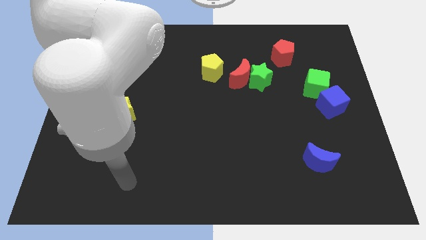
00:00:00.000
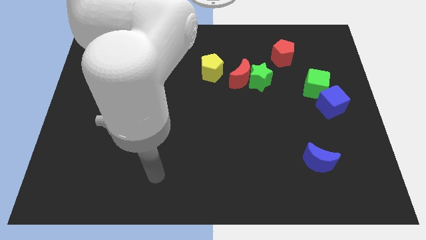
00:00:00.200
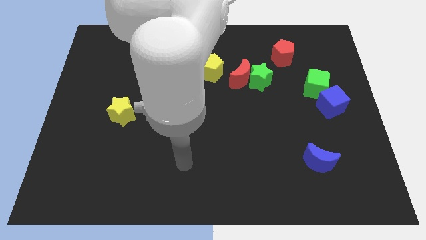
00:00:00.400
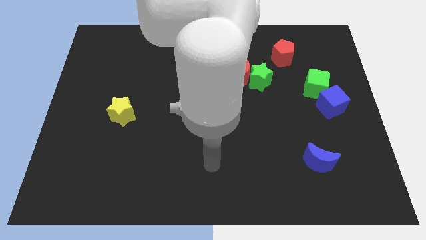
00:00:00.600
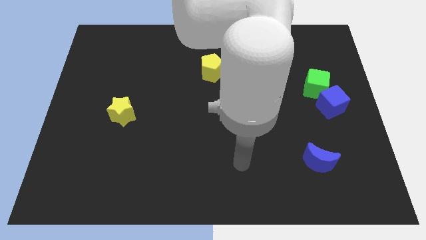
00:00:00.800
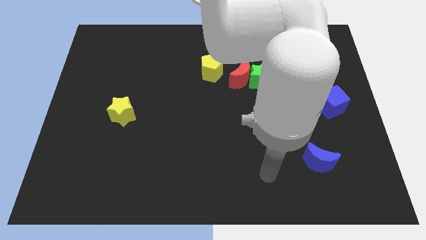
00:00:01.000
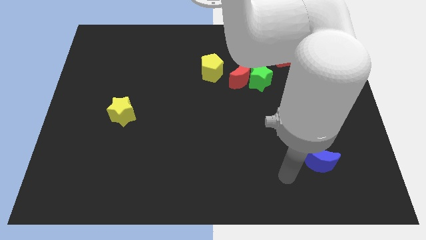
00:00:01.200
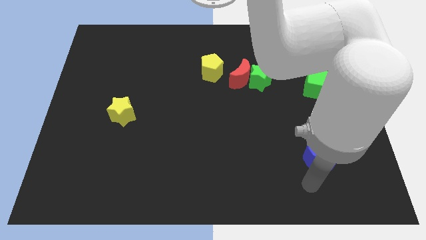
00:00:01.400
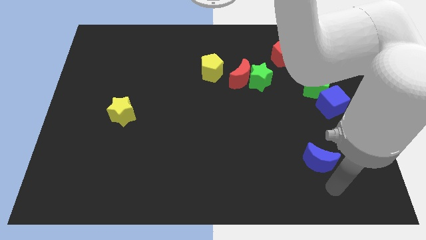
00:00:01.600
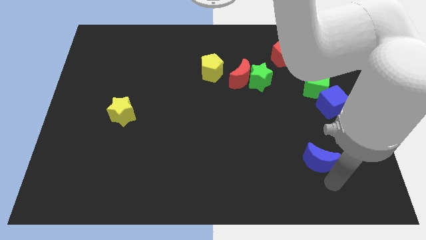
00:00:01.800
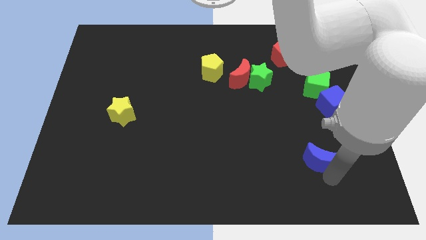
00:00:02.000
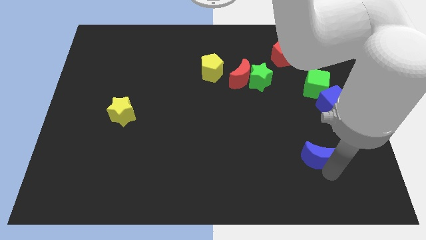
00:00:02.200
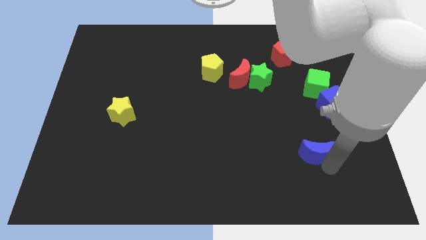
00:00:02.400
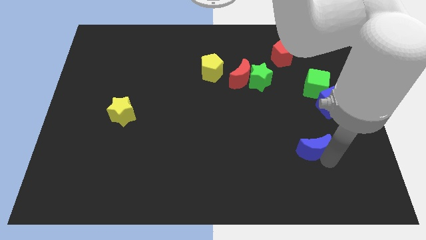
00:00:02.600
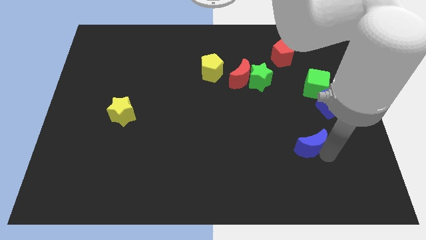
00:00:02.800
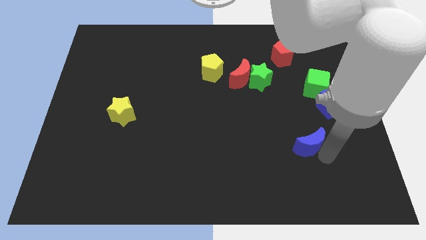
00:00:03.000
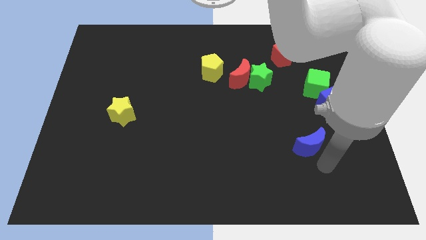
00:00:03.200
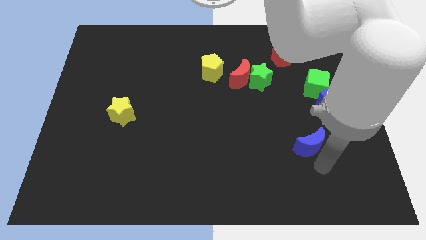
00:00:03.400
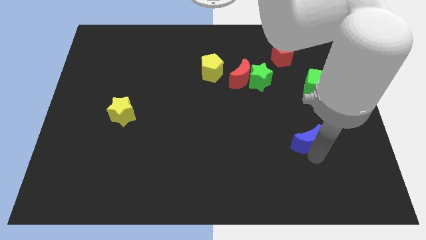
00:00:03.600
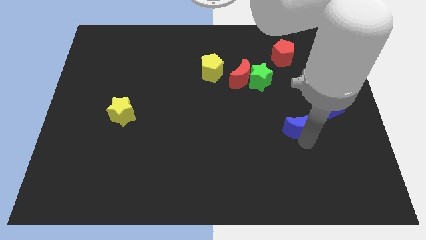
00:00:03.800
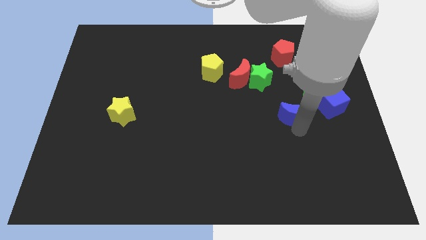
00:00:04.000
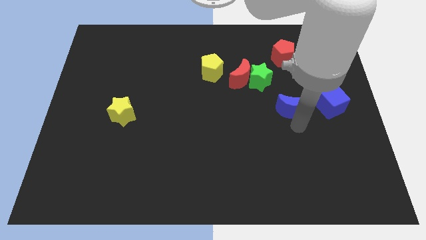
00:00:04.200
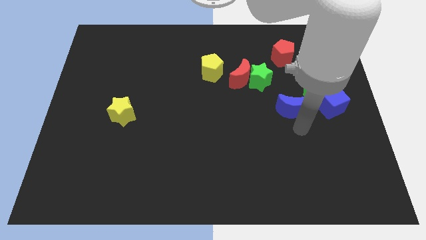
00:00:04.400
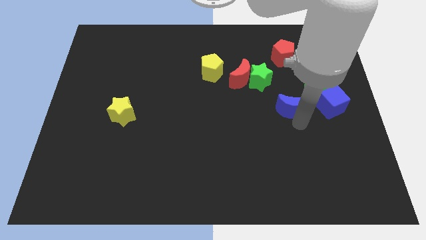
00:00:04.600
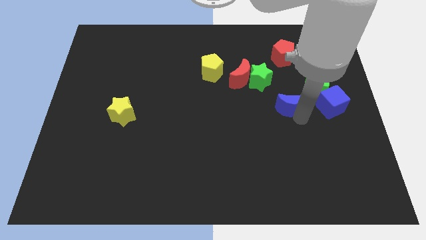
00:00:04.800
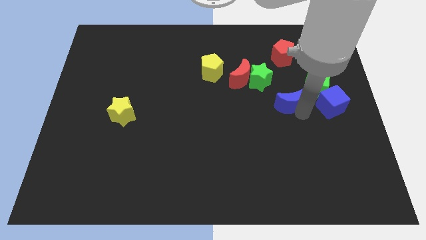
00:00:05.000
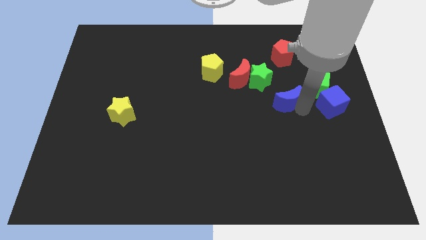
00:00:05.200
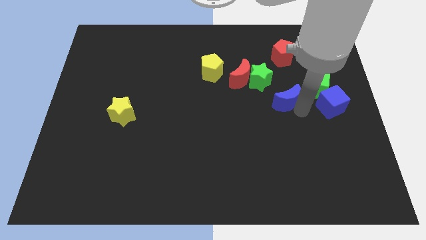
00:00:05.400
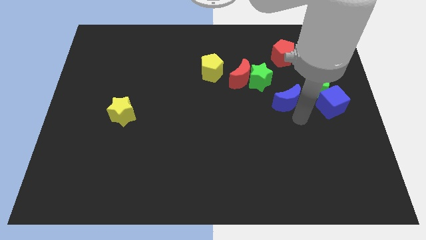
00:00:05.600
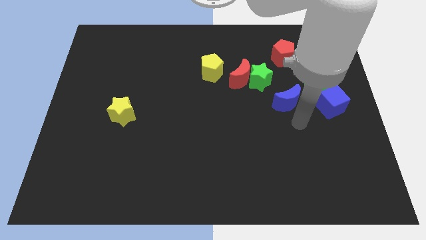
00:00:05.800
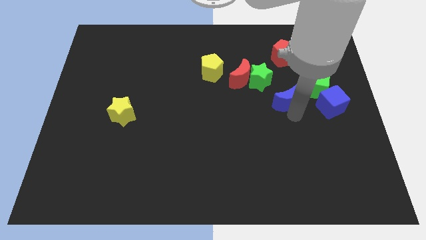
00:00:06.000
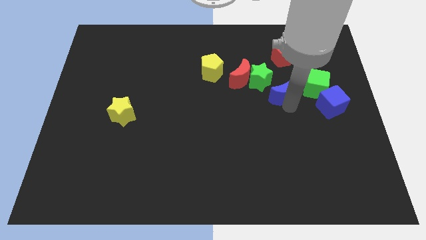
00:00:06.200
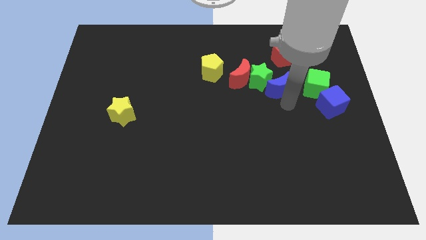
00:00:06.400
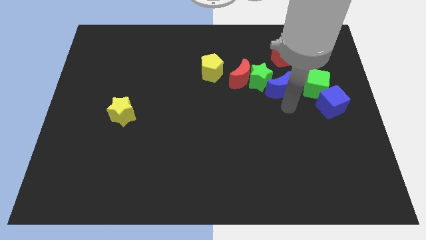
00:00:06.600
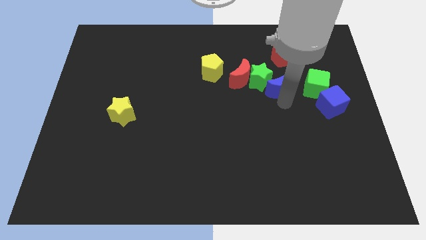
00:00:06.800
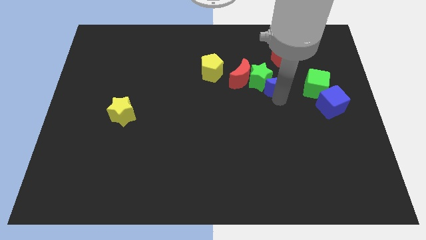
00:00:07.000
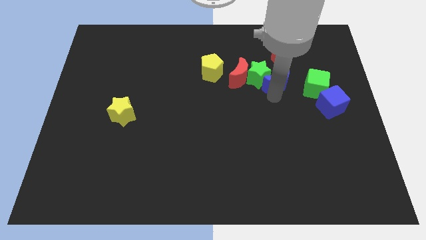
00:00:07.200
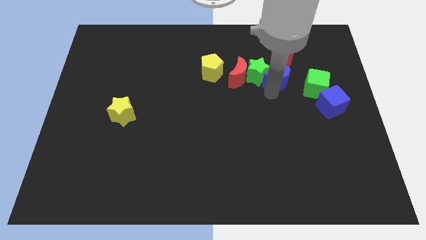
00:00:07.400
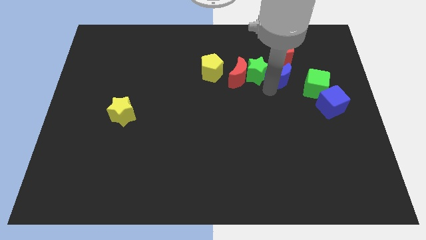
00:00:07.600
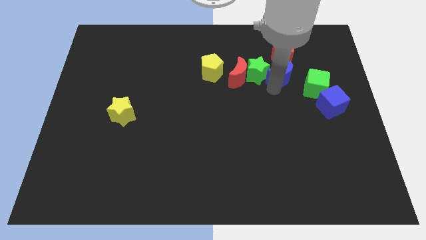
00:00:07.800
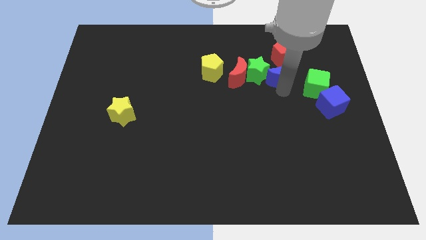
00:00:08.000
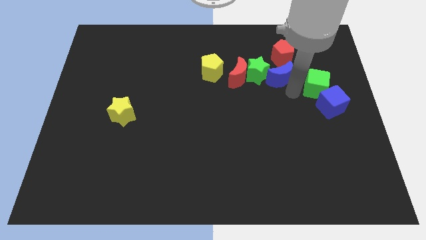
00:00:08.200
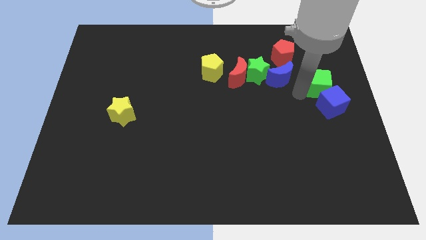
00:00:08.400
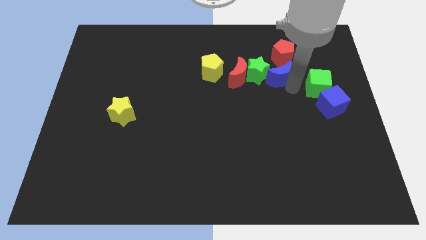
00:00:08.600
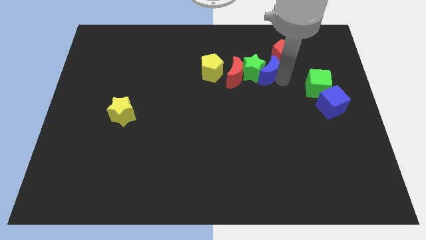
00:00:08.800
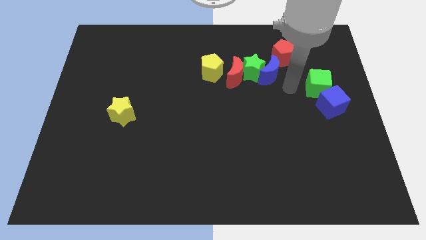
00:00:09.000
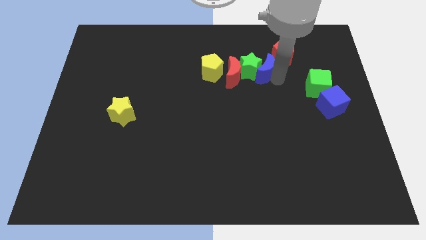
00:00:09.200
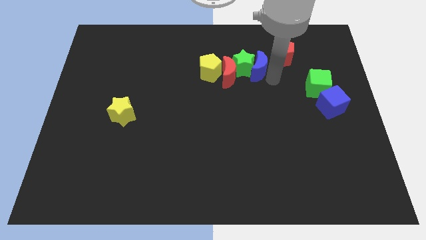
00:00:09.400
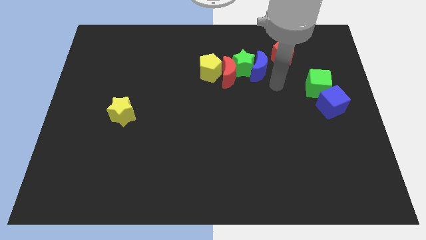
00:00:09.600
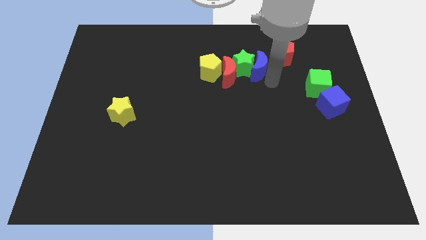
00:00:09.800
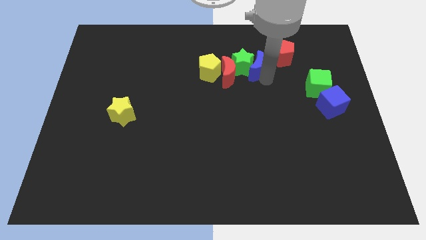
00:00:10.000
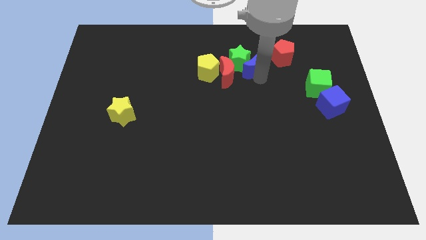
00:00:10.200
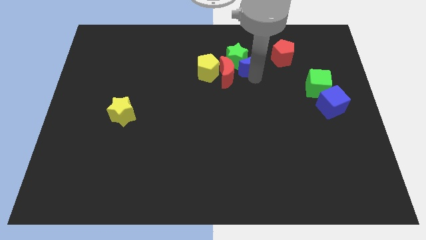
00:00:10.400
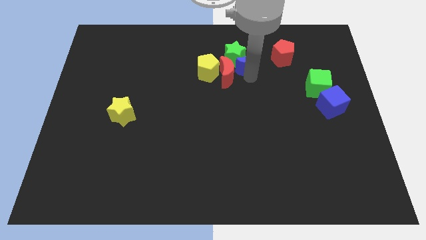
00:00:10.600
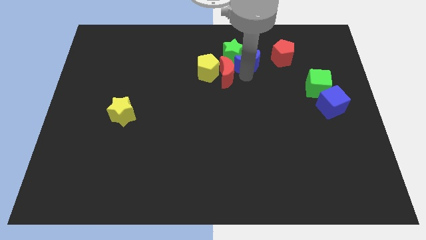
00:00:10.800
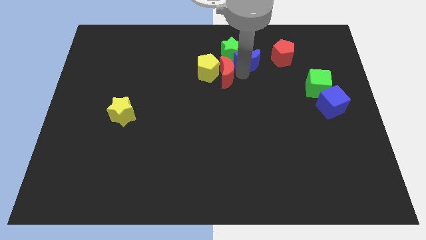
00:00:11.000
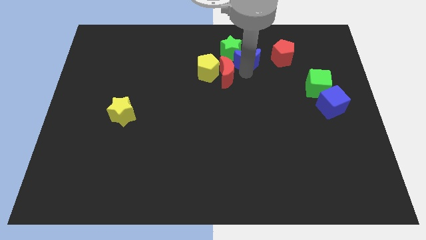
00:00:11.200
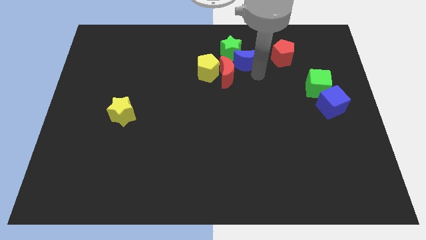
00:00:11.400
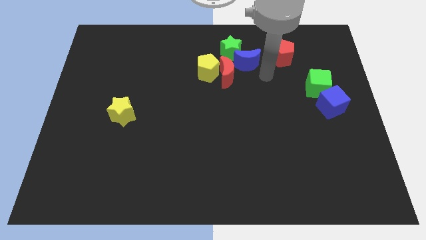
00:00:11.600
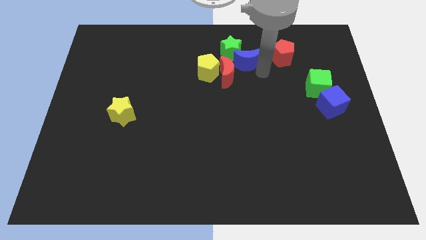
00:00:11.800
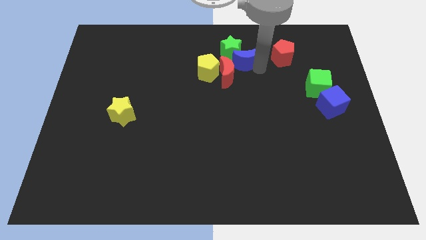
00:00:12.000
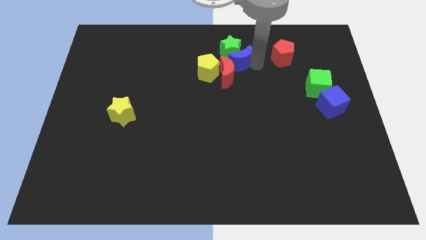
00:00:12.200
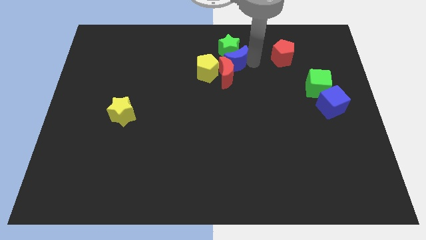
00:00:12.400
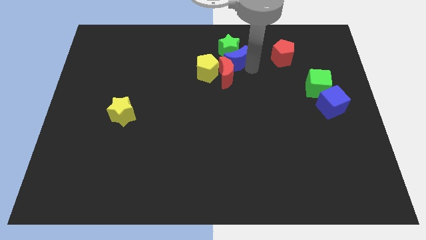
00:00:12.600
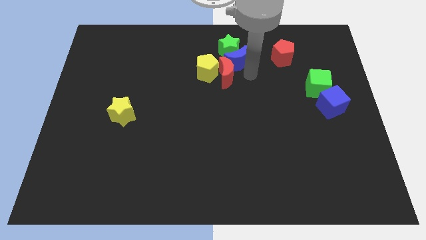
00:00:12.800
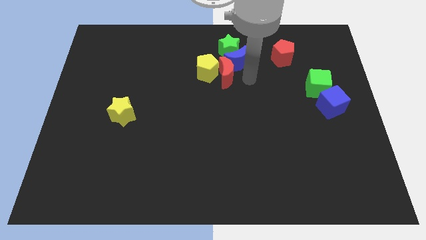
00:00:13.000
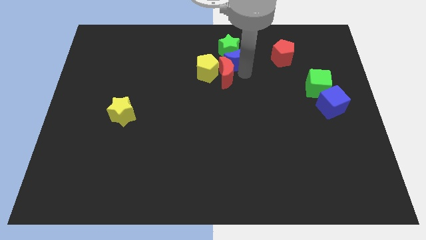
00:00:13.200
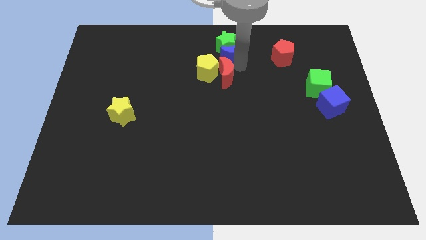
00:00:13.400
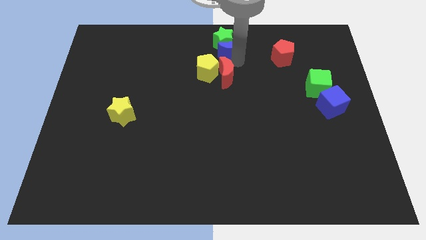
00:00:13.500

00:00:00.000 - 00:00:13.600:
push the blue moon to the top
